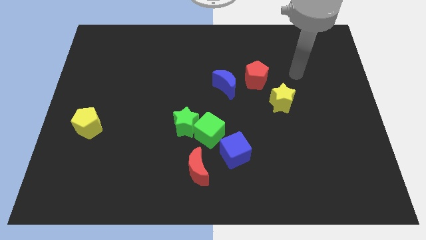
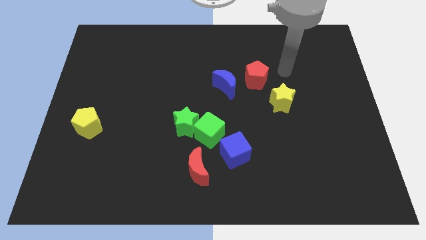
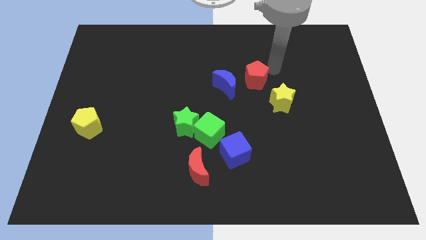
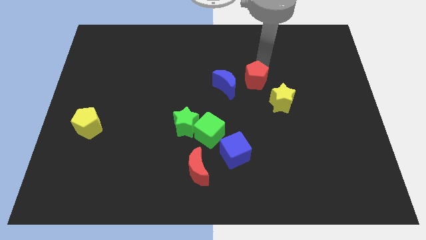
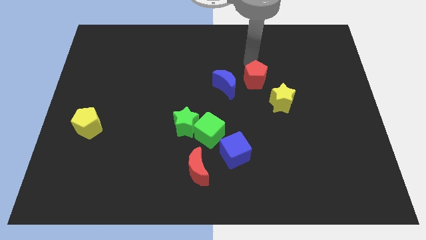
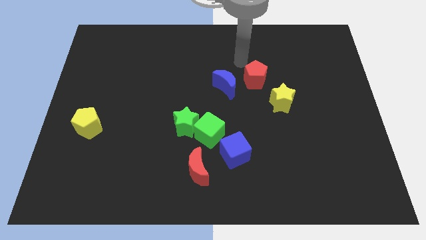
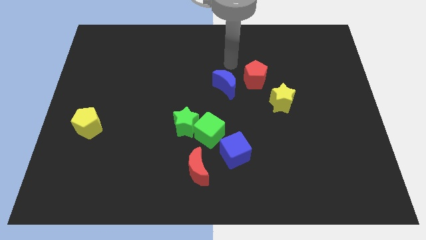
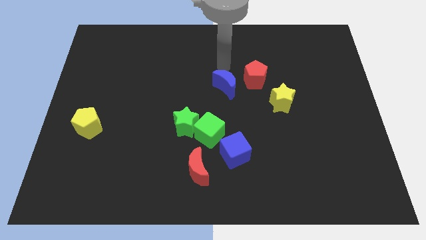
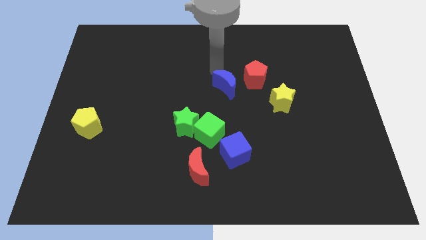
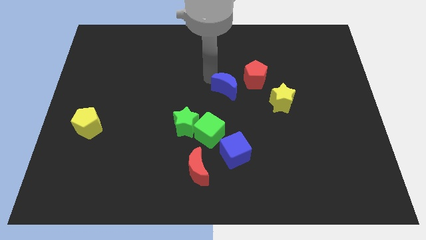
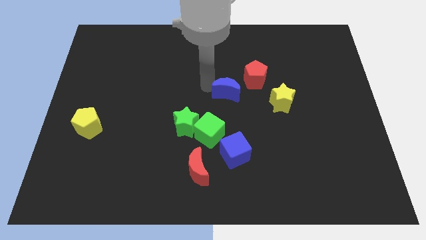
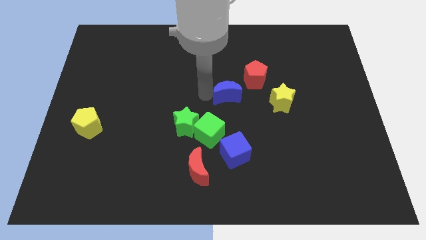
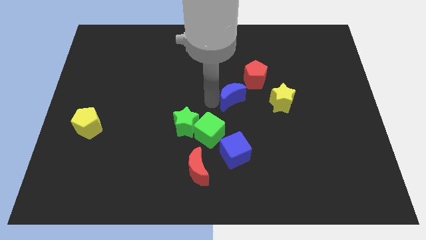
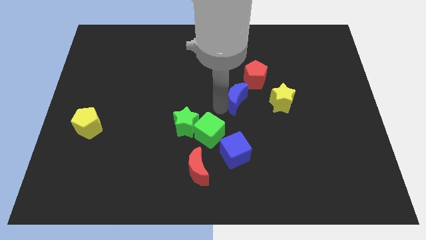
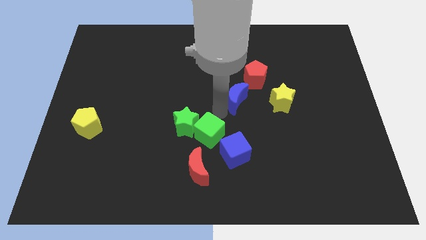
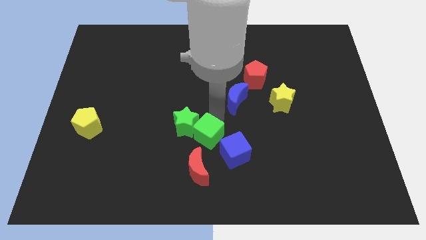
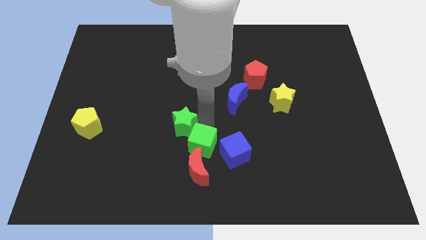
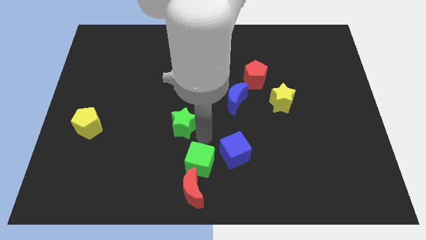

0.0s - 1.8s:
pull the green star apart from the green cube

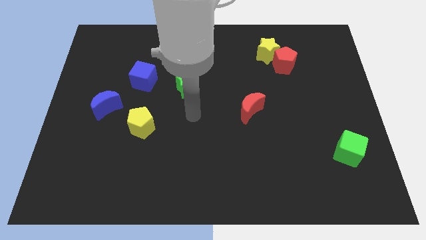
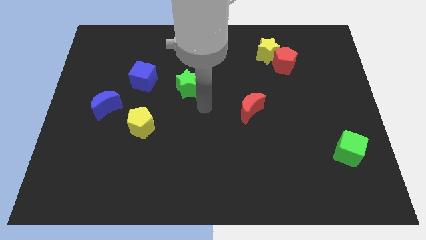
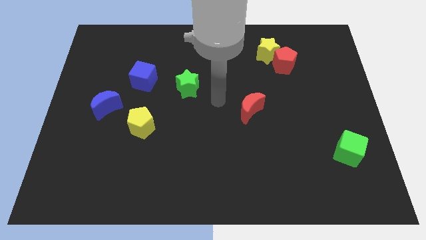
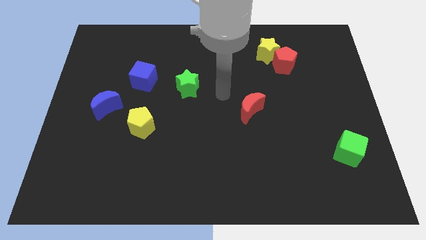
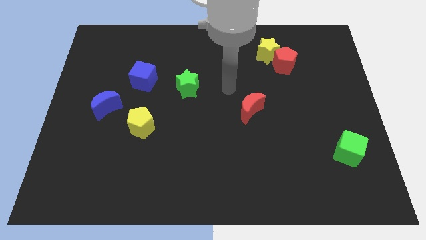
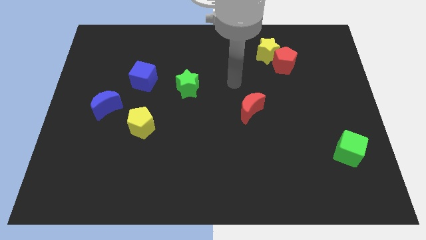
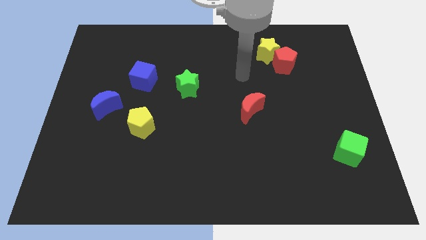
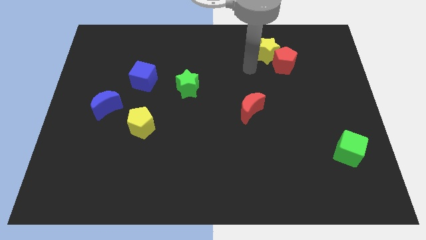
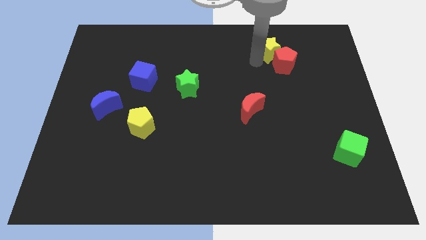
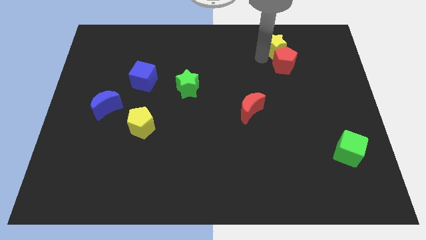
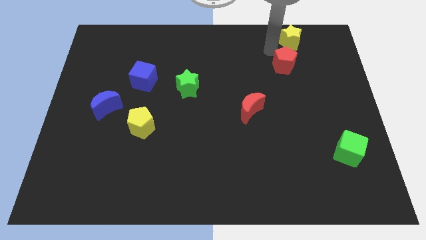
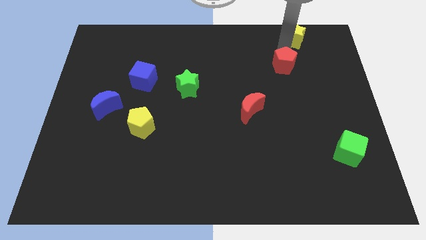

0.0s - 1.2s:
move the red pentagon away from the yellow star

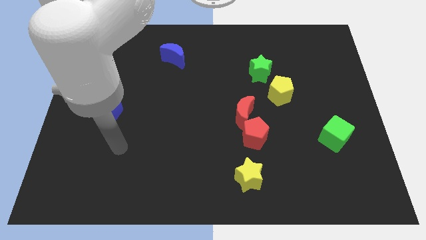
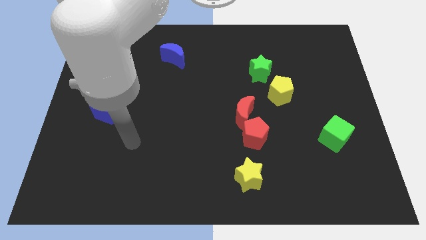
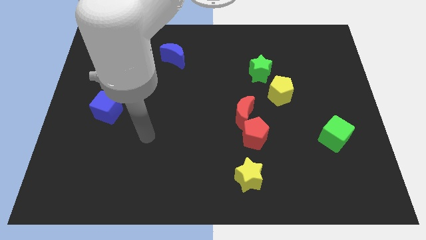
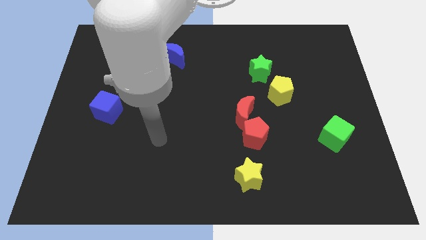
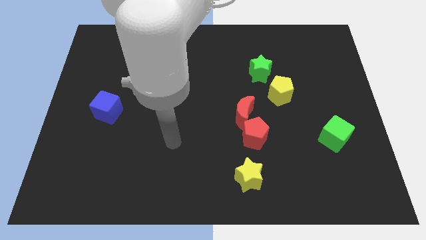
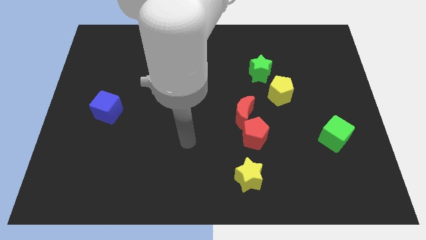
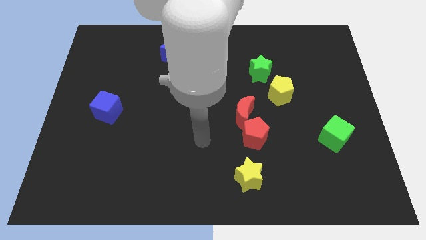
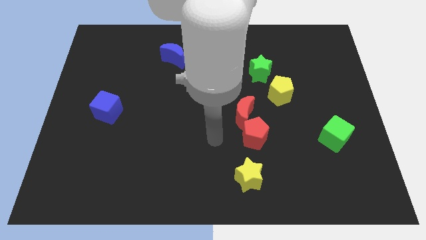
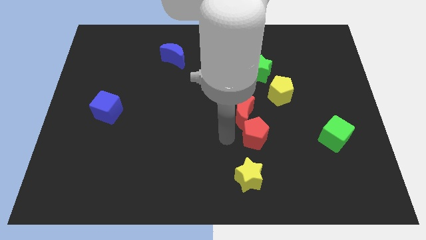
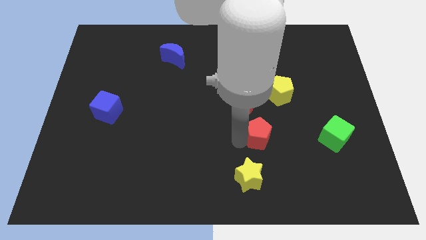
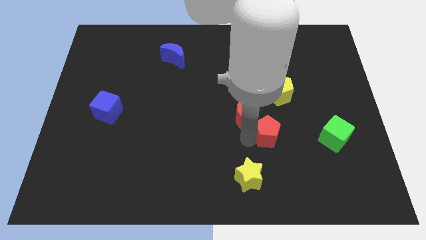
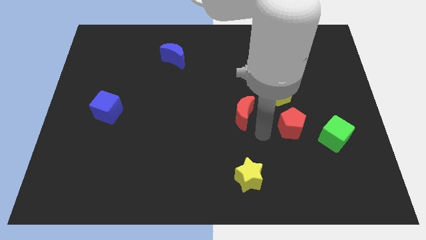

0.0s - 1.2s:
pull the red moon apart from the red pentagon

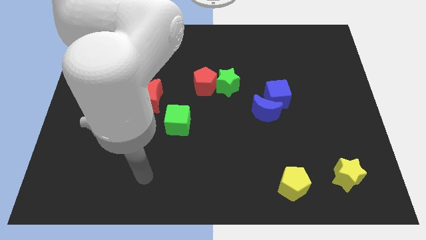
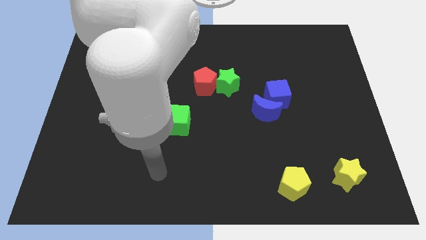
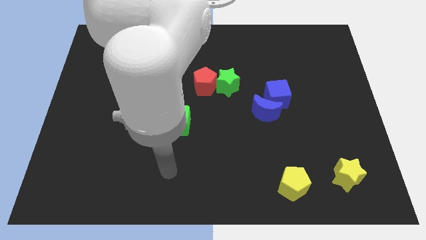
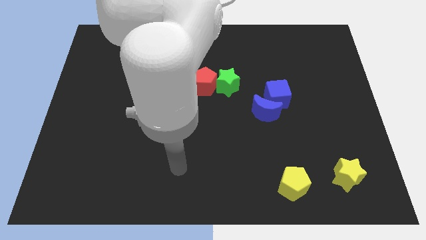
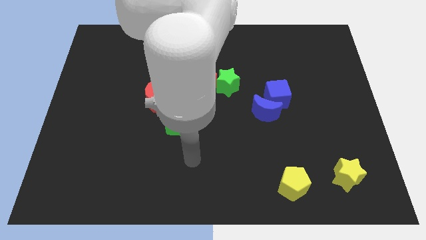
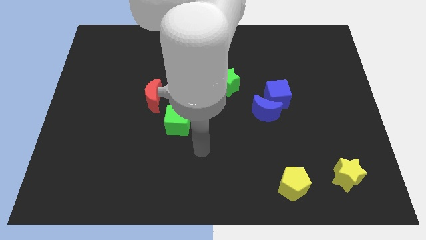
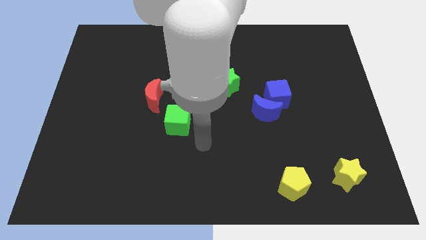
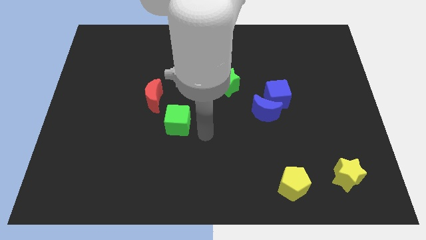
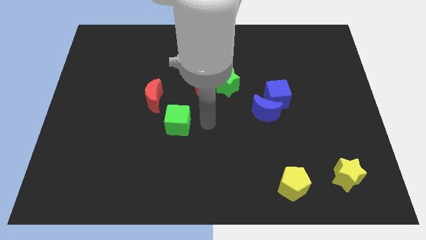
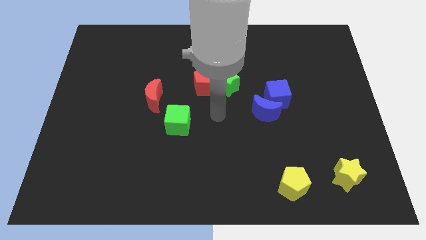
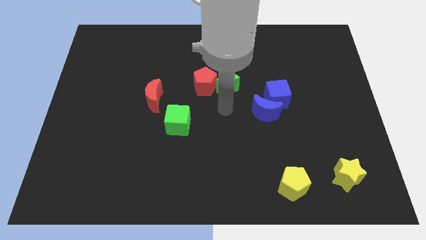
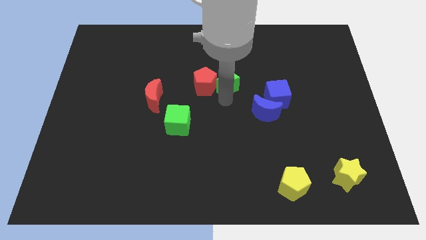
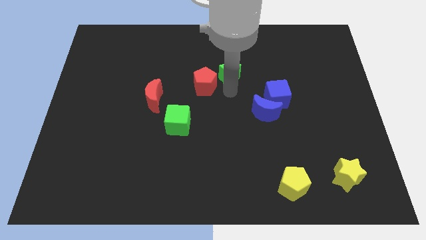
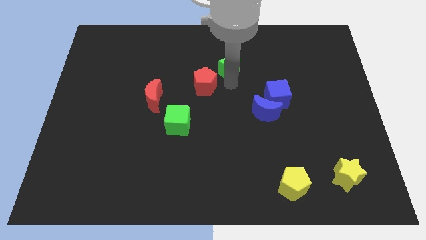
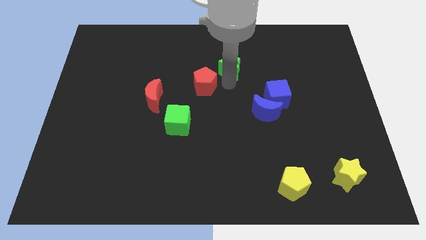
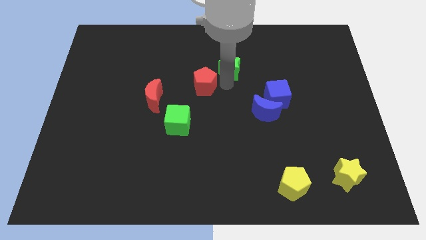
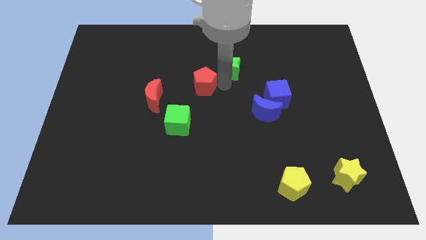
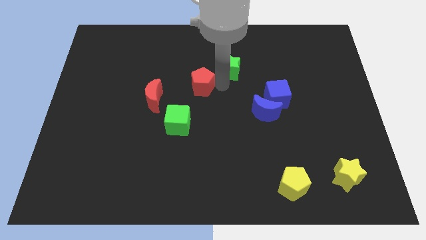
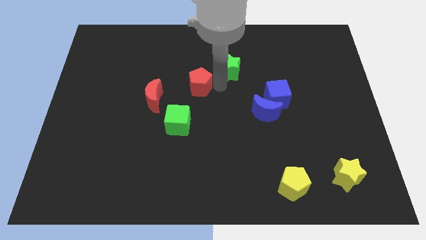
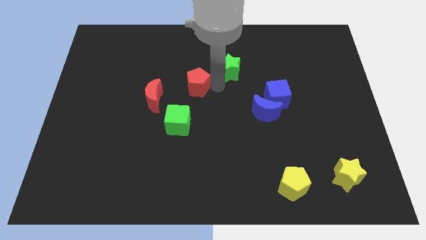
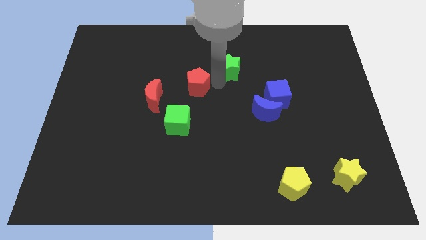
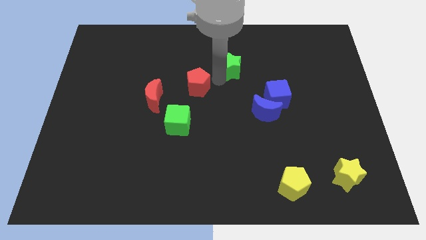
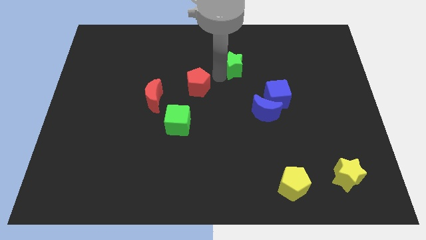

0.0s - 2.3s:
separate the red pentagon from the green star

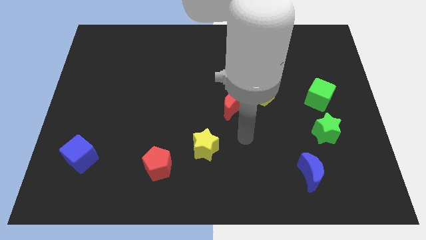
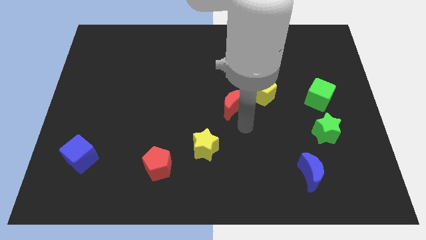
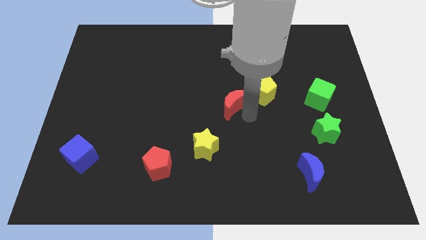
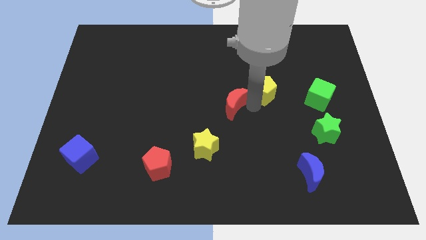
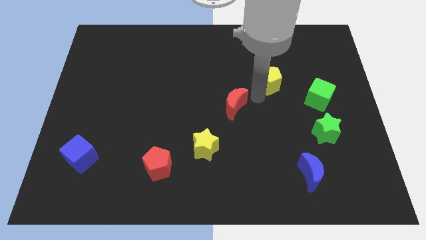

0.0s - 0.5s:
pull the red moon apart from the yellow pentagon

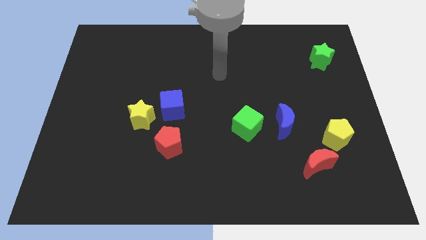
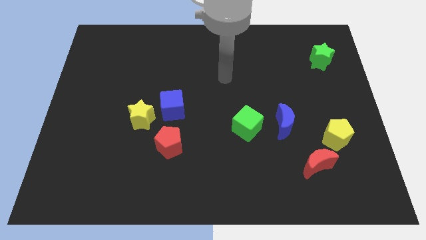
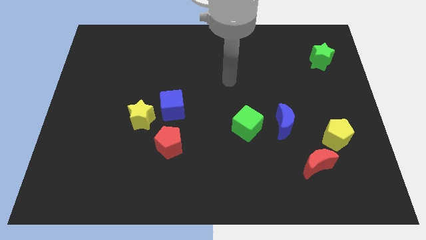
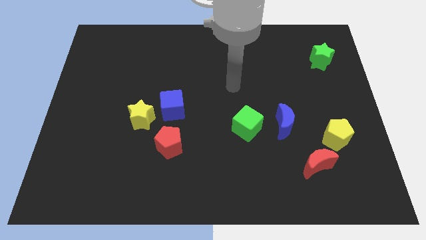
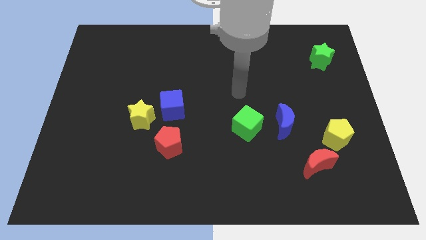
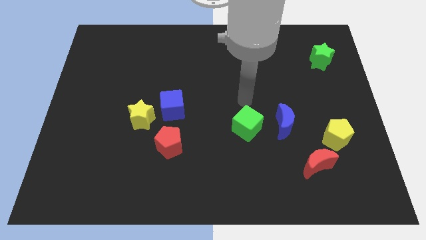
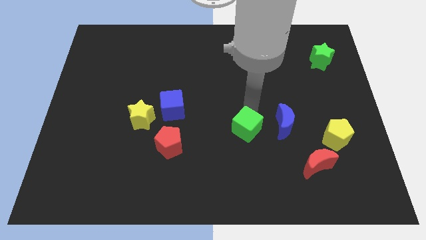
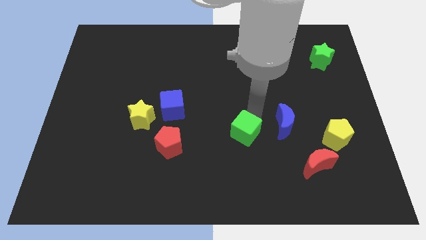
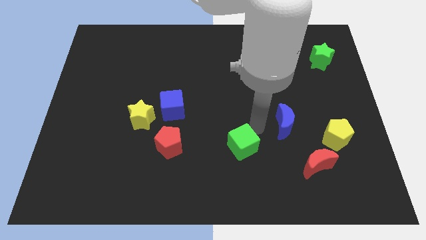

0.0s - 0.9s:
separate the blue moon from the green cube

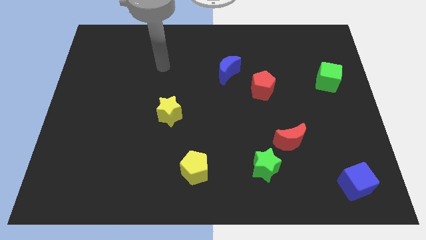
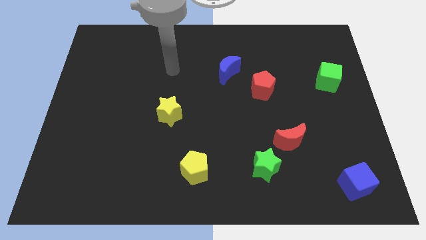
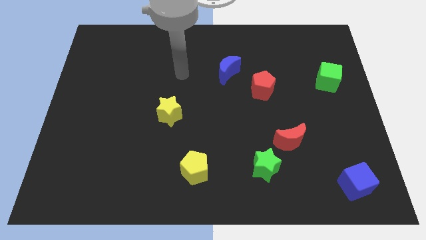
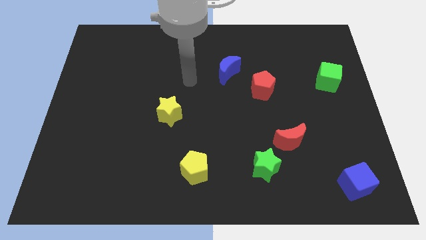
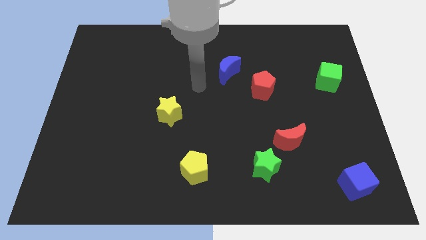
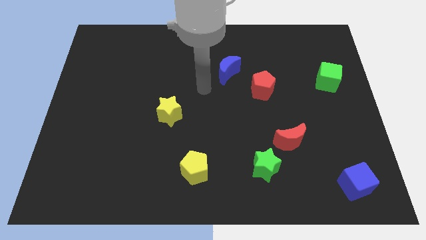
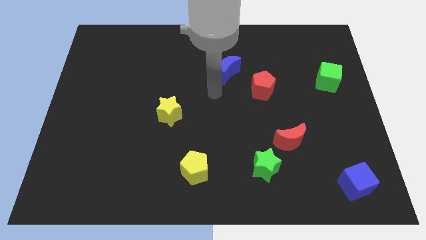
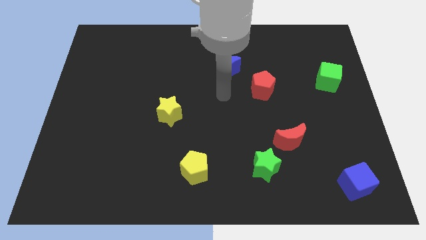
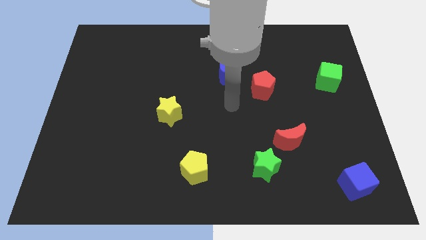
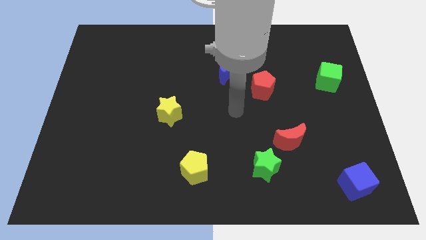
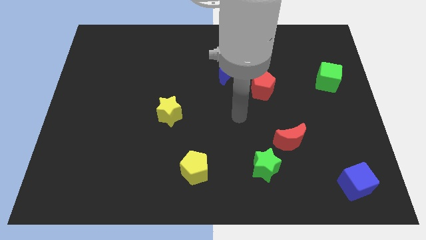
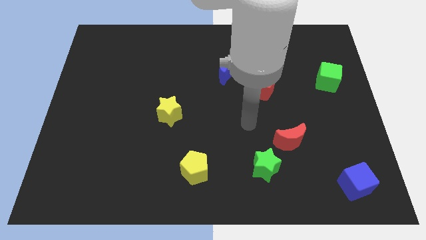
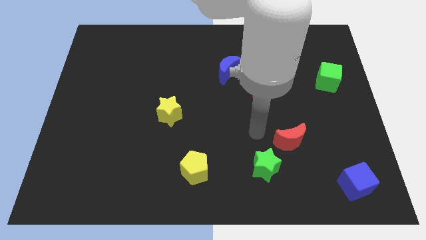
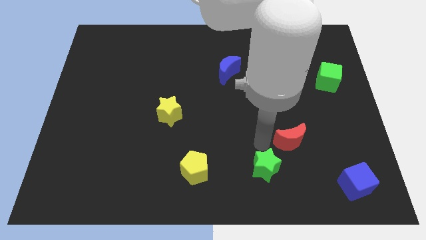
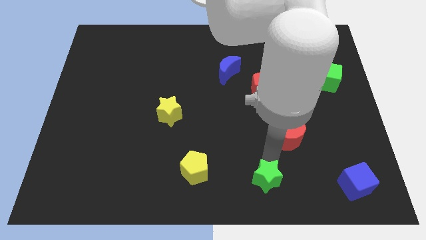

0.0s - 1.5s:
move the red moon away from the green star
